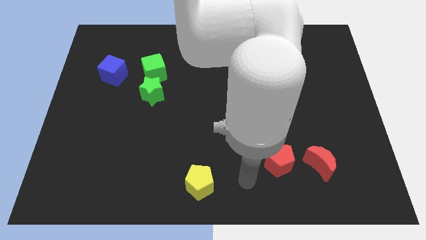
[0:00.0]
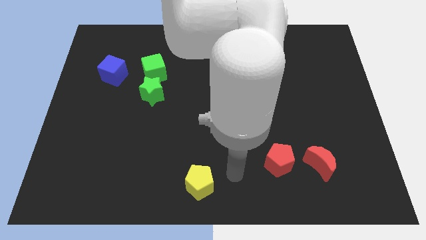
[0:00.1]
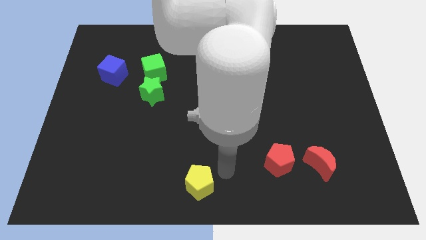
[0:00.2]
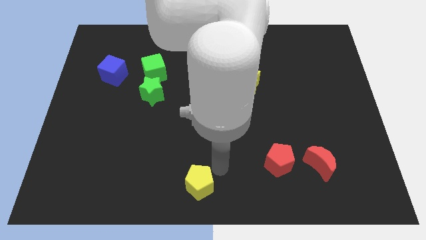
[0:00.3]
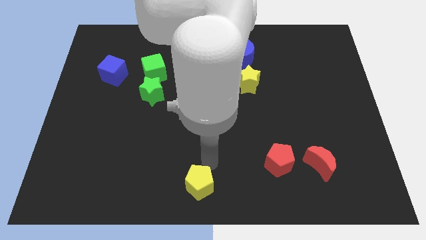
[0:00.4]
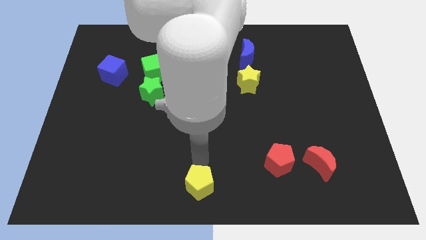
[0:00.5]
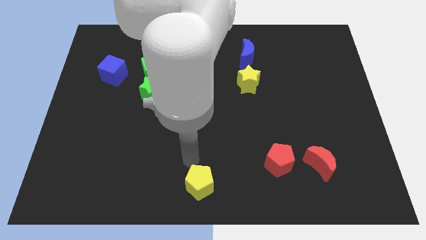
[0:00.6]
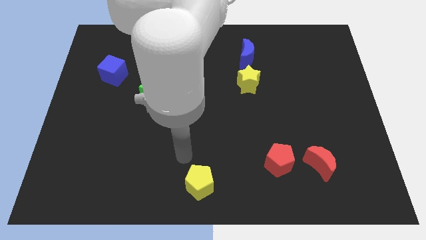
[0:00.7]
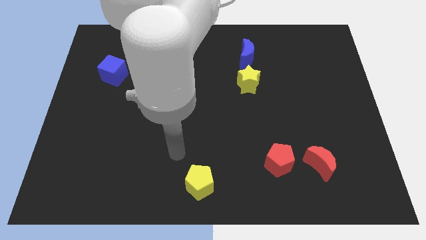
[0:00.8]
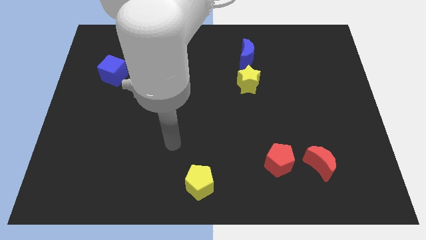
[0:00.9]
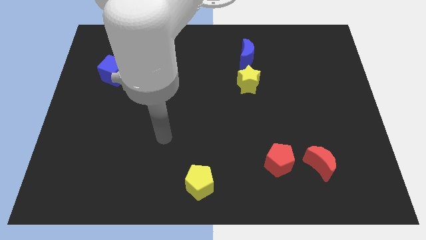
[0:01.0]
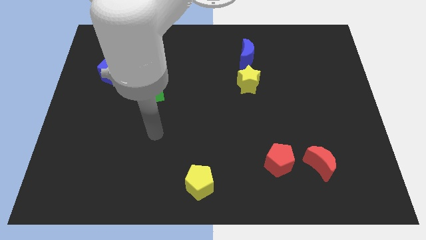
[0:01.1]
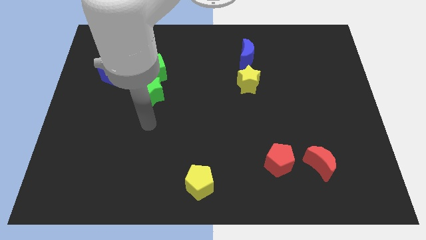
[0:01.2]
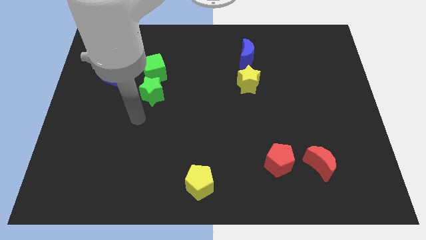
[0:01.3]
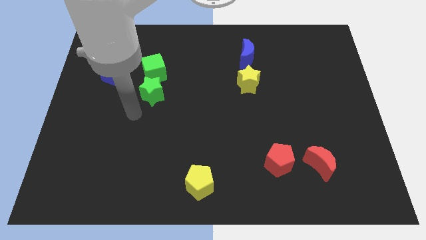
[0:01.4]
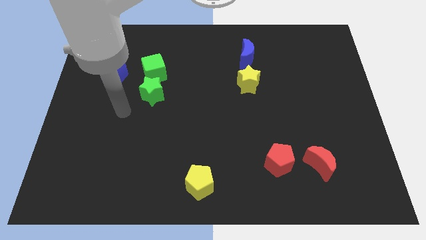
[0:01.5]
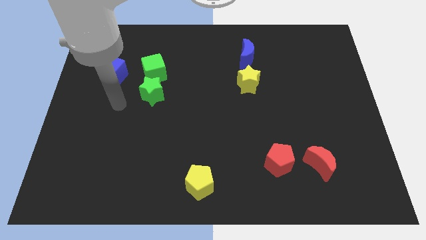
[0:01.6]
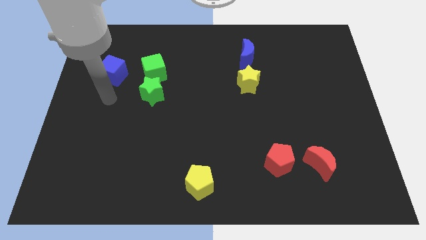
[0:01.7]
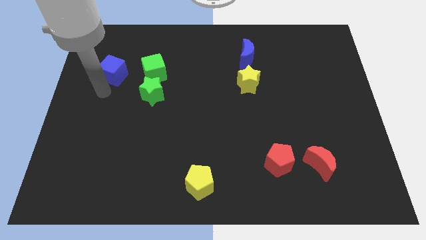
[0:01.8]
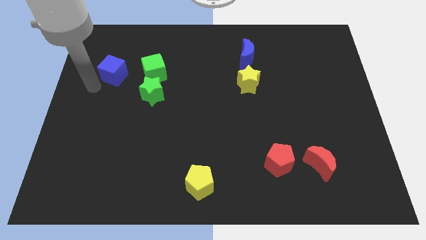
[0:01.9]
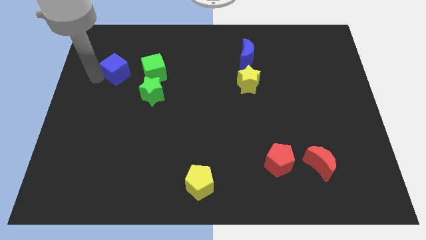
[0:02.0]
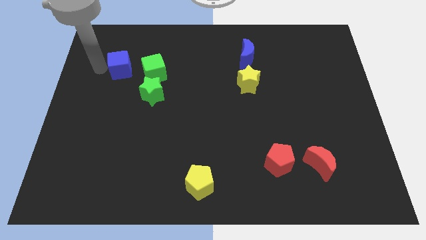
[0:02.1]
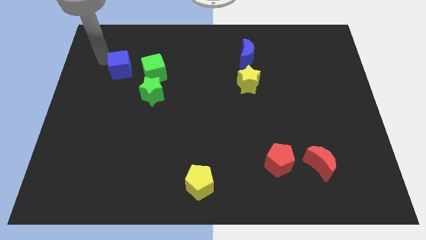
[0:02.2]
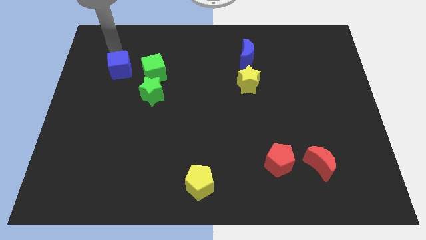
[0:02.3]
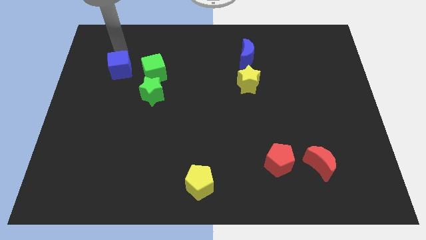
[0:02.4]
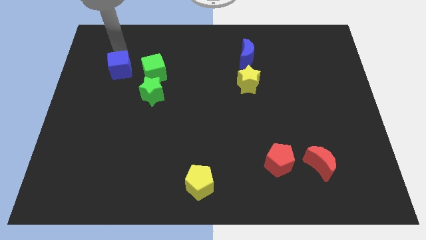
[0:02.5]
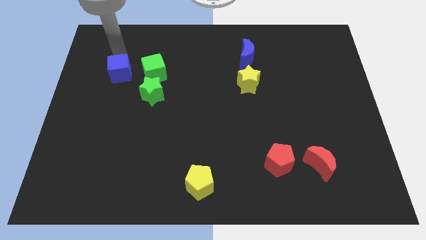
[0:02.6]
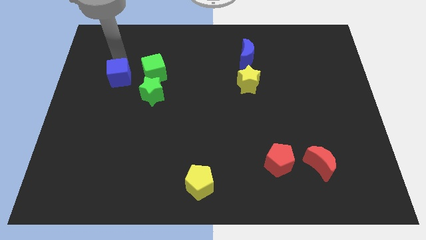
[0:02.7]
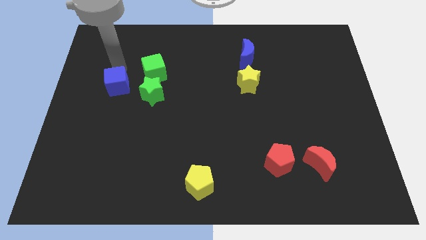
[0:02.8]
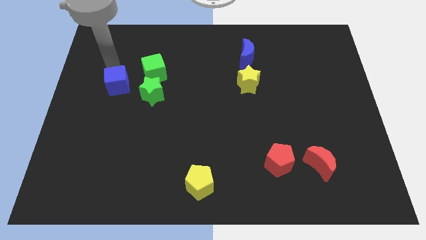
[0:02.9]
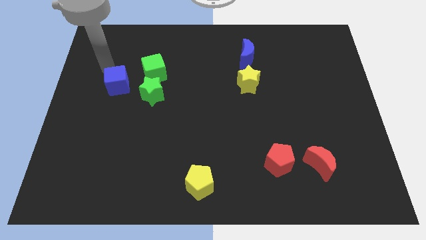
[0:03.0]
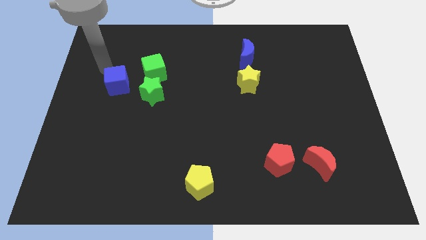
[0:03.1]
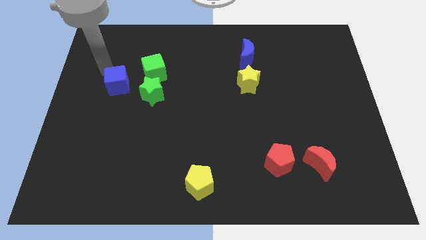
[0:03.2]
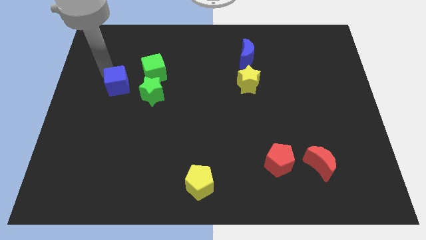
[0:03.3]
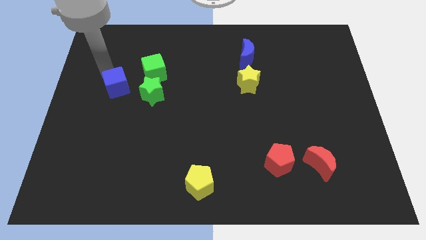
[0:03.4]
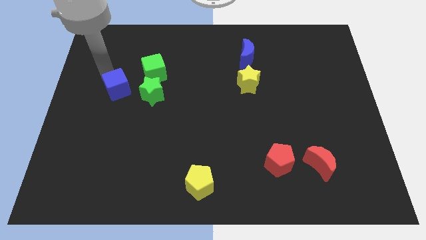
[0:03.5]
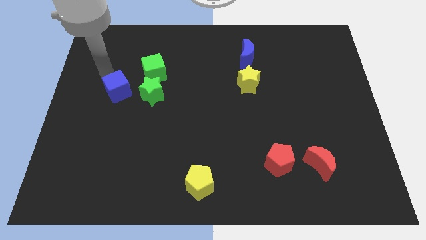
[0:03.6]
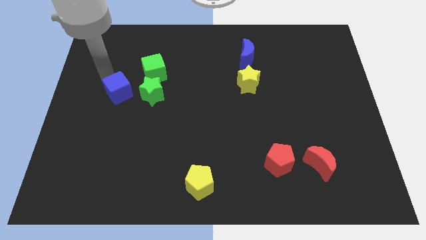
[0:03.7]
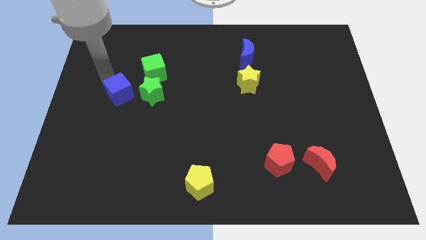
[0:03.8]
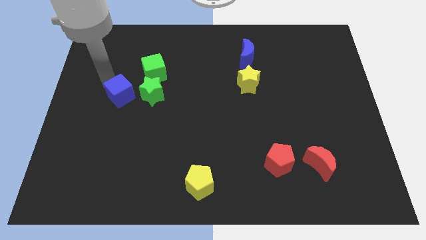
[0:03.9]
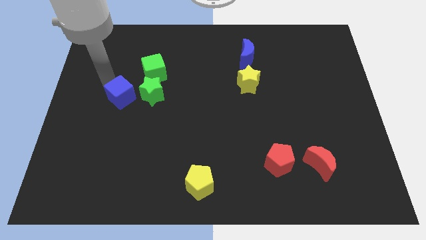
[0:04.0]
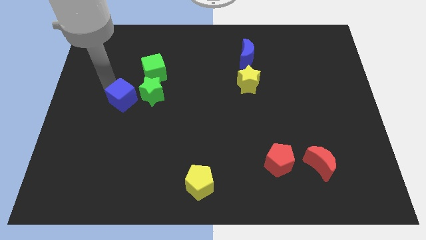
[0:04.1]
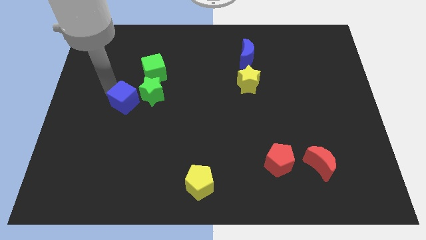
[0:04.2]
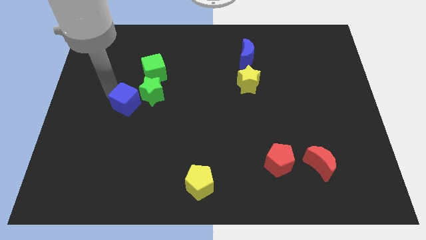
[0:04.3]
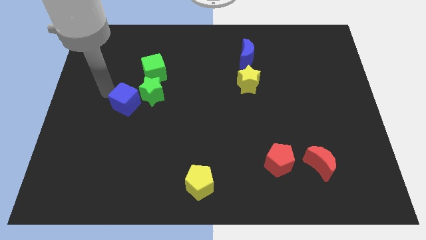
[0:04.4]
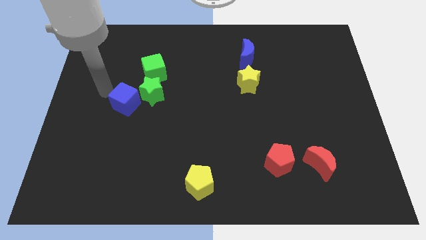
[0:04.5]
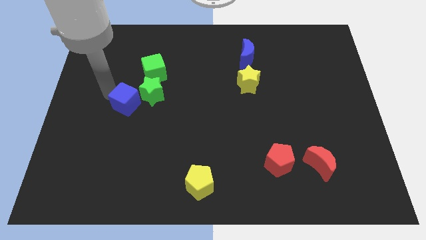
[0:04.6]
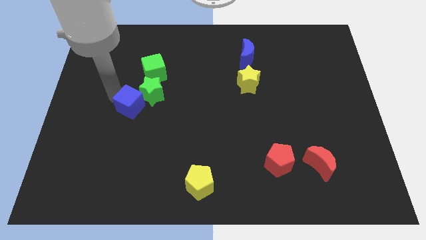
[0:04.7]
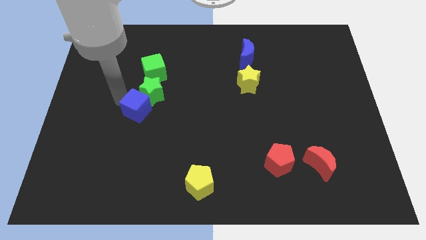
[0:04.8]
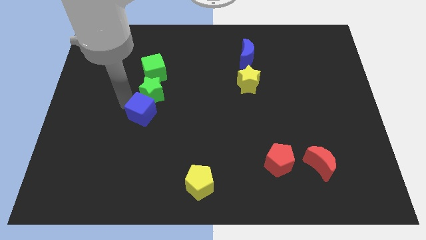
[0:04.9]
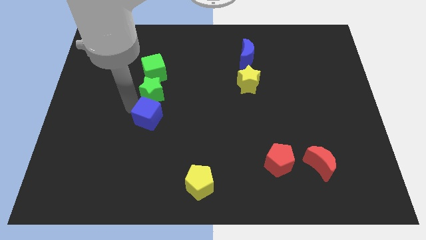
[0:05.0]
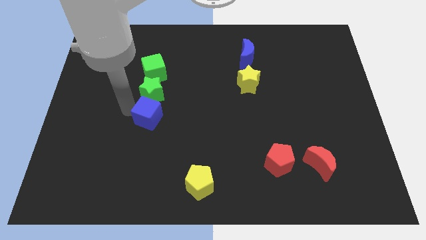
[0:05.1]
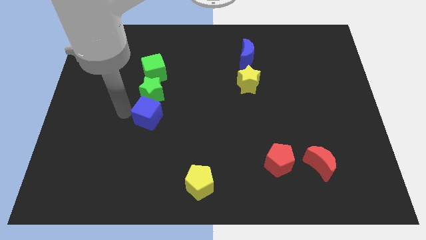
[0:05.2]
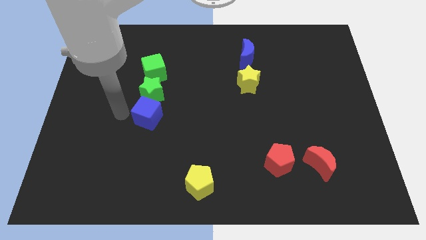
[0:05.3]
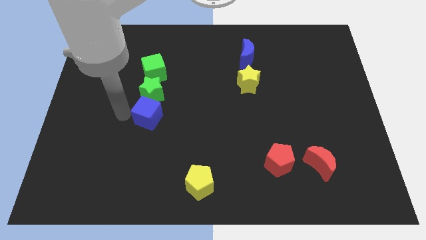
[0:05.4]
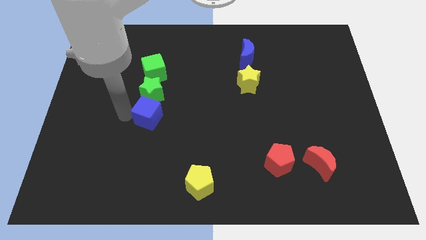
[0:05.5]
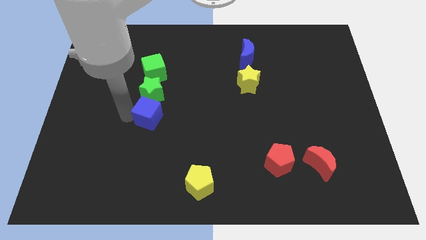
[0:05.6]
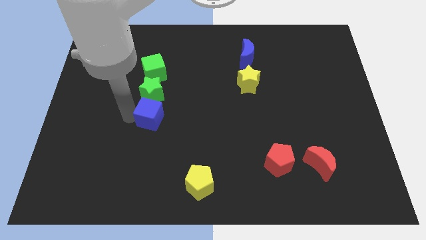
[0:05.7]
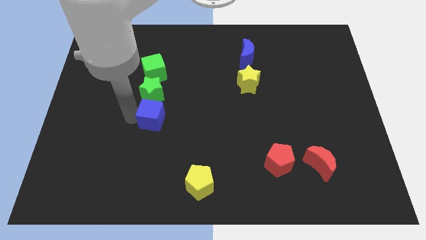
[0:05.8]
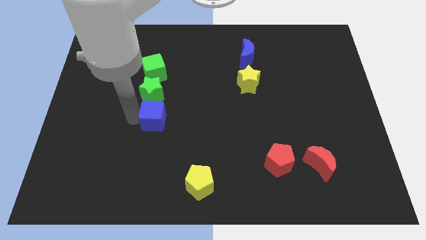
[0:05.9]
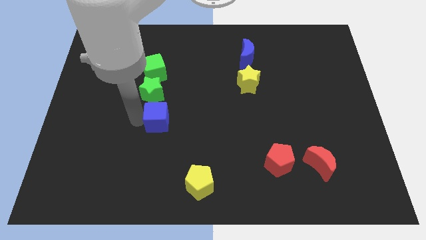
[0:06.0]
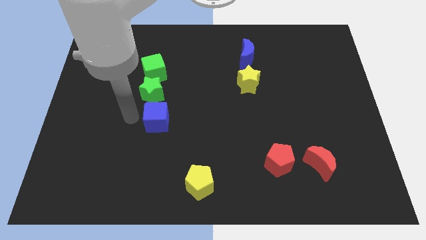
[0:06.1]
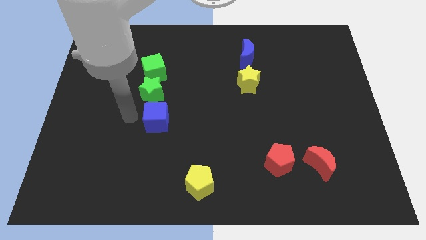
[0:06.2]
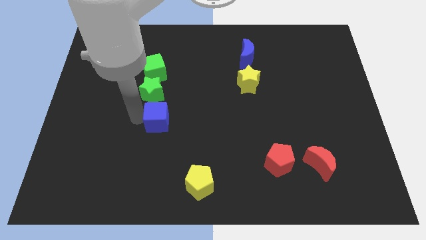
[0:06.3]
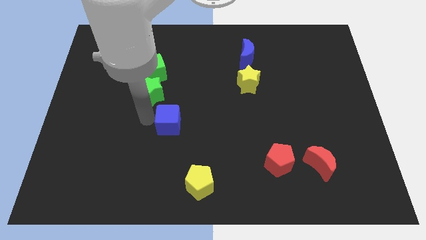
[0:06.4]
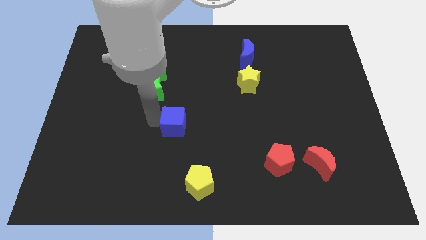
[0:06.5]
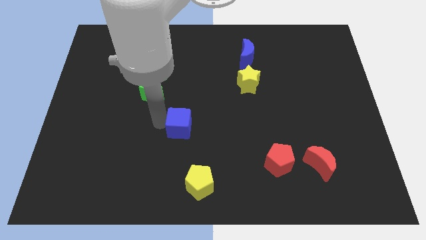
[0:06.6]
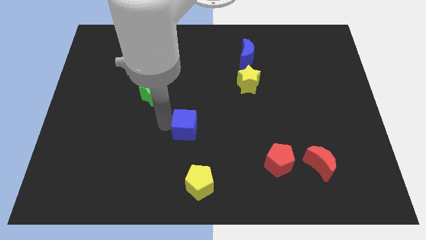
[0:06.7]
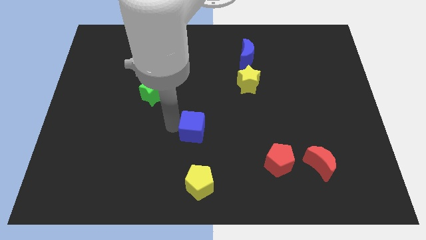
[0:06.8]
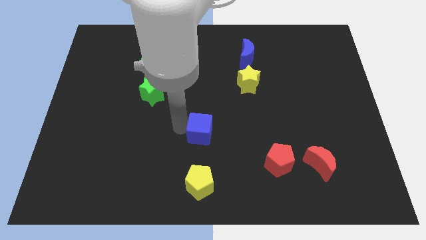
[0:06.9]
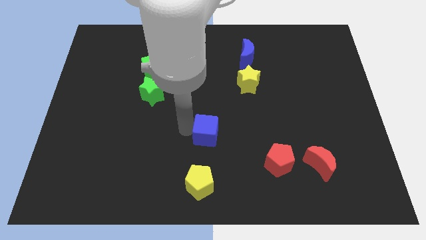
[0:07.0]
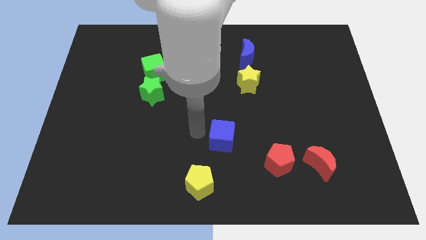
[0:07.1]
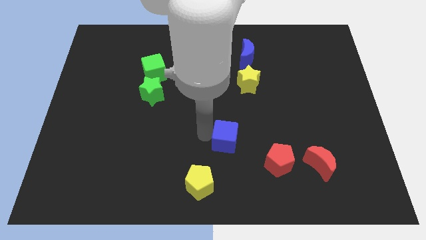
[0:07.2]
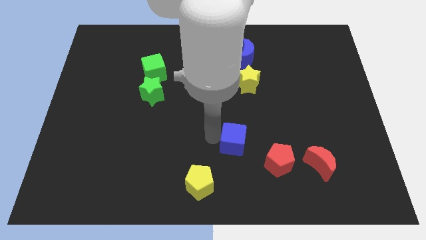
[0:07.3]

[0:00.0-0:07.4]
slide the blue cube to the top left of the red pentagon
